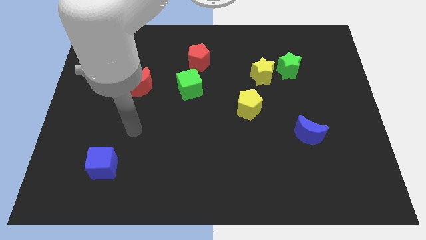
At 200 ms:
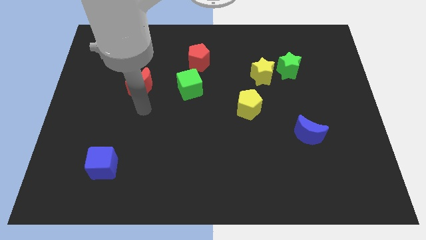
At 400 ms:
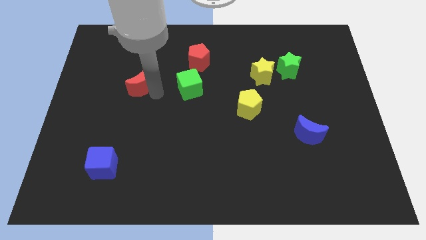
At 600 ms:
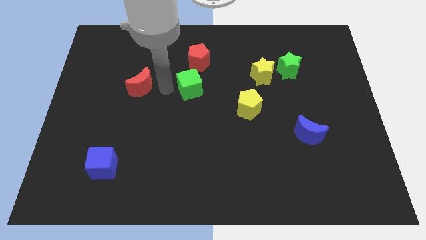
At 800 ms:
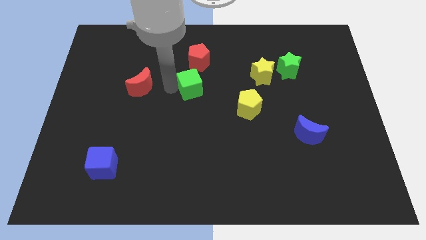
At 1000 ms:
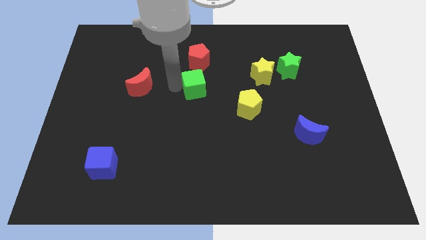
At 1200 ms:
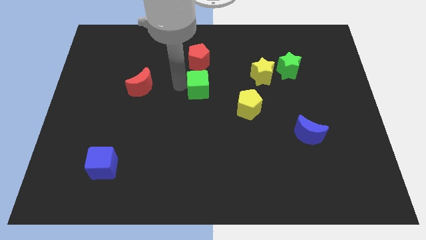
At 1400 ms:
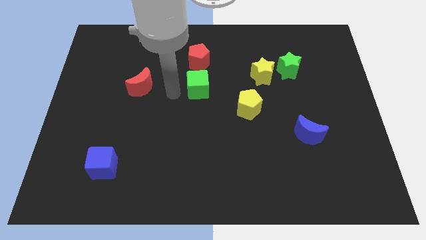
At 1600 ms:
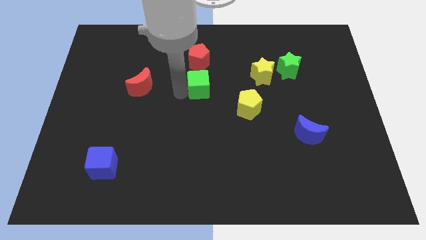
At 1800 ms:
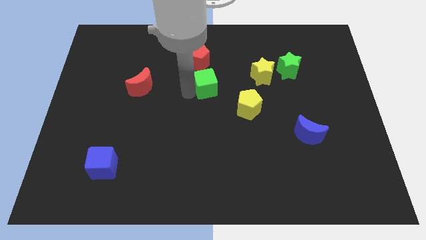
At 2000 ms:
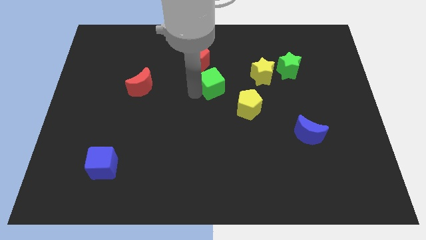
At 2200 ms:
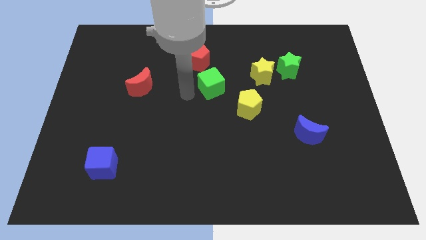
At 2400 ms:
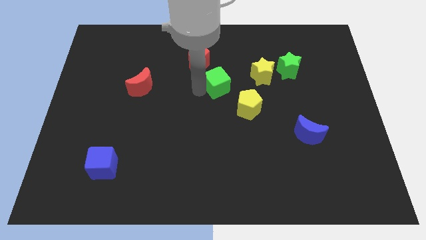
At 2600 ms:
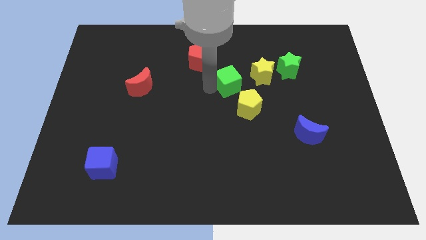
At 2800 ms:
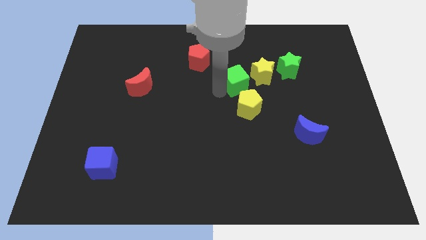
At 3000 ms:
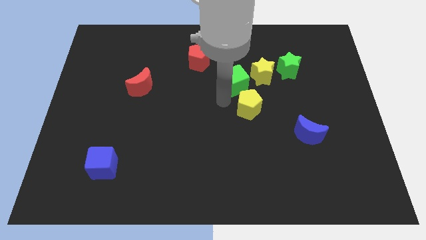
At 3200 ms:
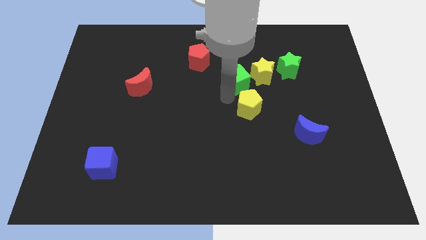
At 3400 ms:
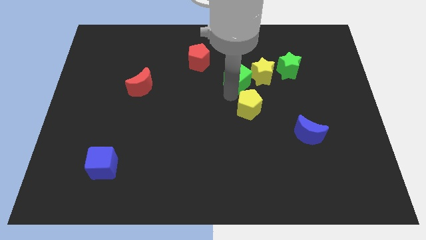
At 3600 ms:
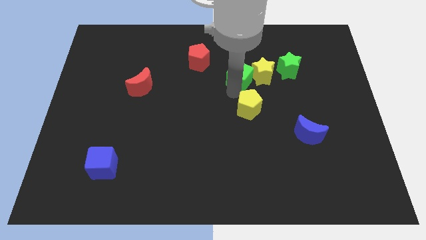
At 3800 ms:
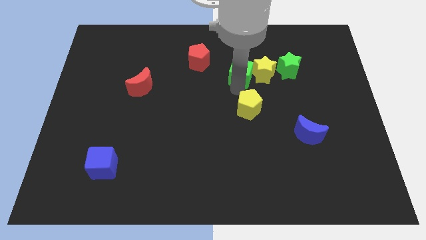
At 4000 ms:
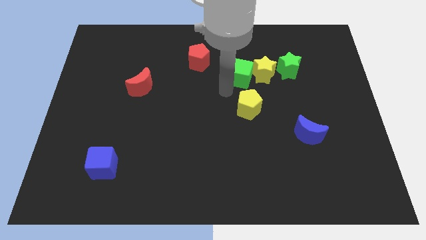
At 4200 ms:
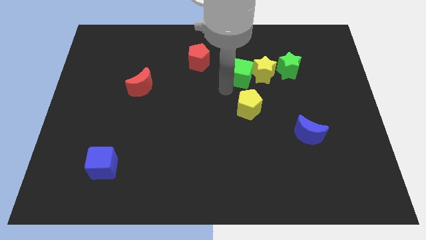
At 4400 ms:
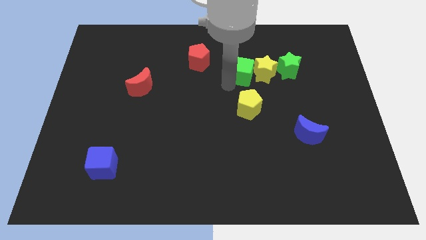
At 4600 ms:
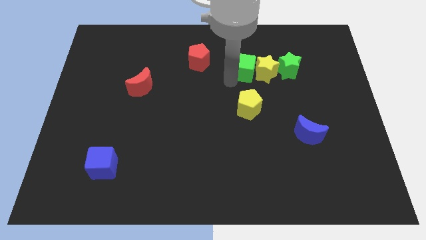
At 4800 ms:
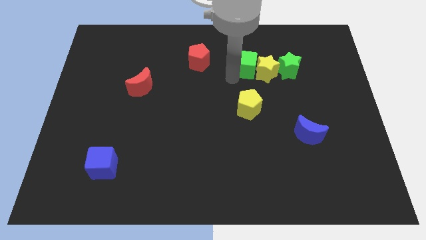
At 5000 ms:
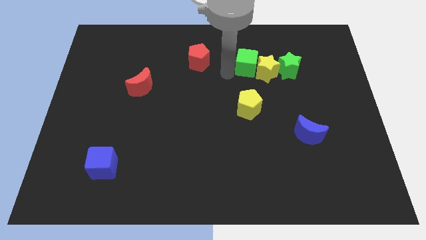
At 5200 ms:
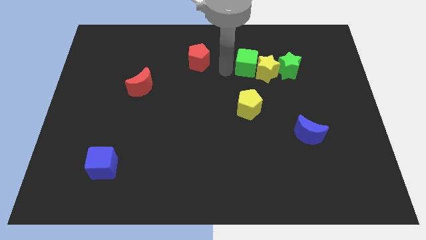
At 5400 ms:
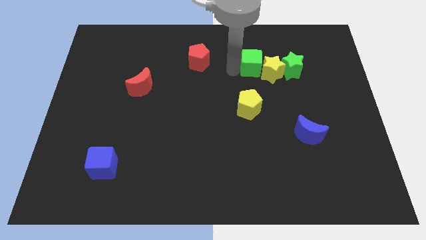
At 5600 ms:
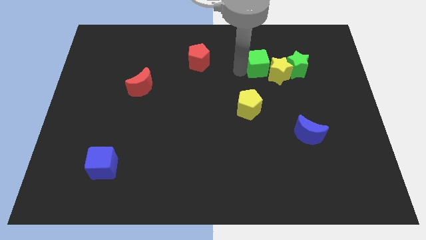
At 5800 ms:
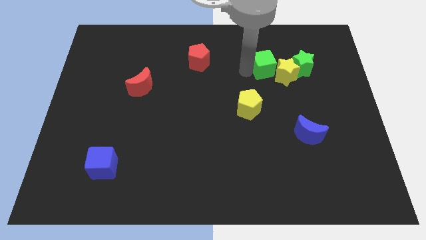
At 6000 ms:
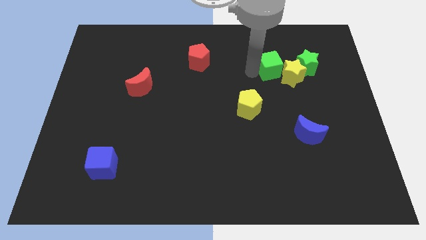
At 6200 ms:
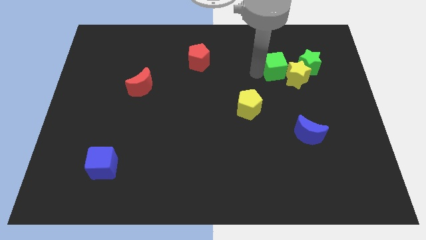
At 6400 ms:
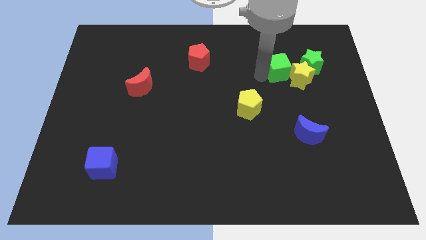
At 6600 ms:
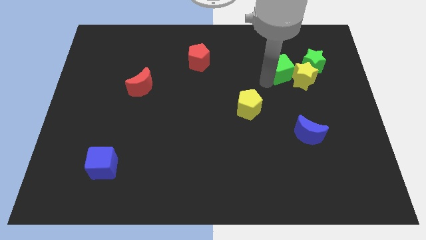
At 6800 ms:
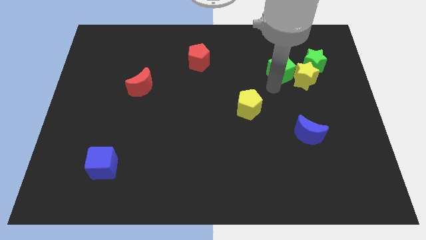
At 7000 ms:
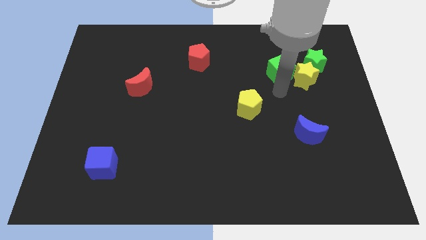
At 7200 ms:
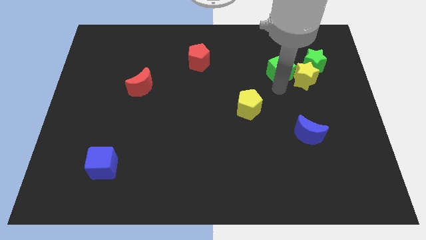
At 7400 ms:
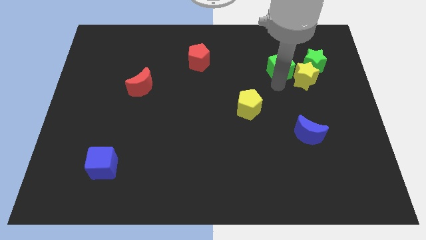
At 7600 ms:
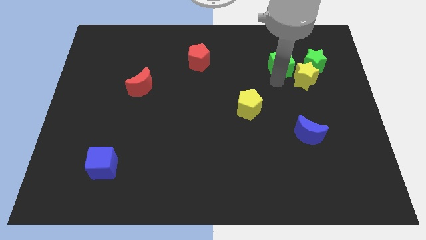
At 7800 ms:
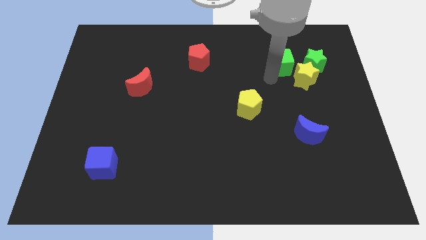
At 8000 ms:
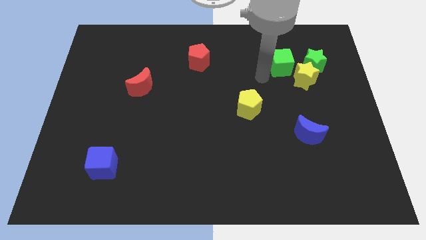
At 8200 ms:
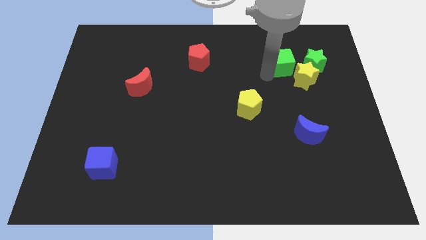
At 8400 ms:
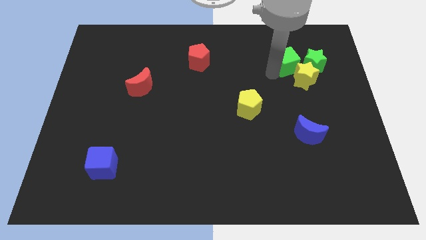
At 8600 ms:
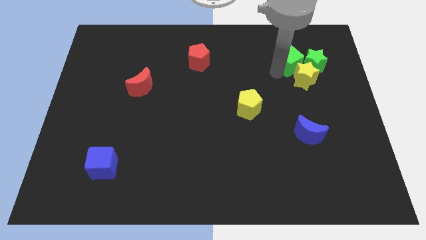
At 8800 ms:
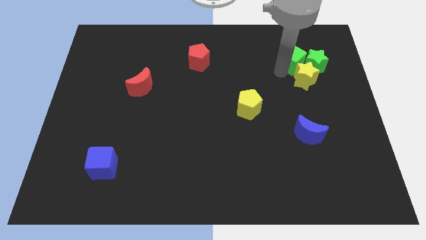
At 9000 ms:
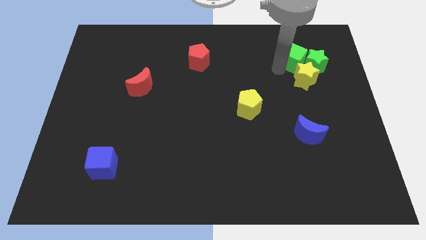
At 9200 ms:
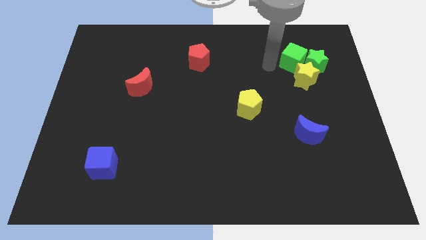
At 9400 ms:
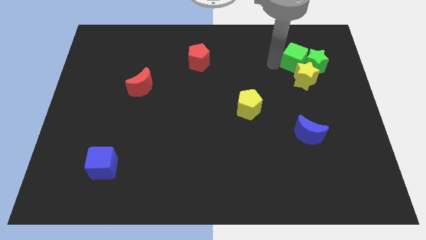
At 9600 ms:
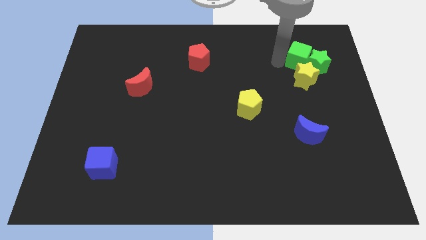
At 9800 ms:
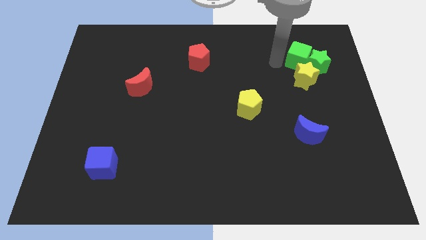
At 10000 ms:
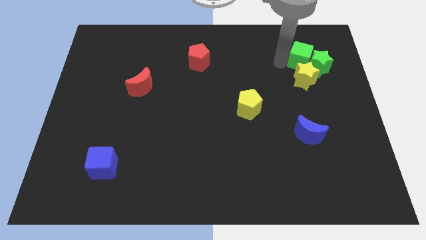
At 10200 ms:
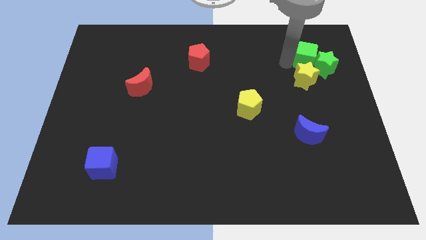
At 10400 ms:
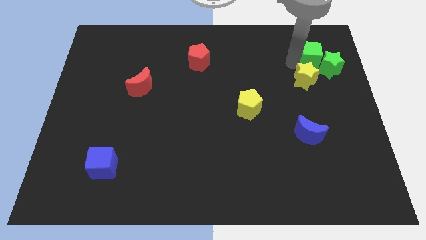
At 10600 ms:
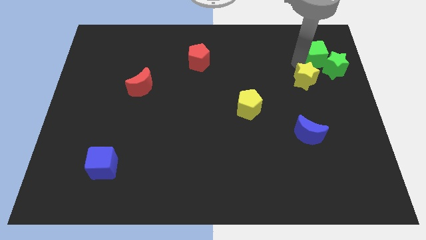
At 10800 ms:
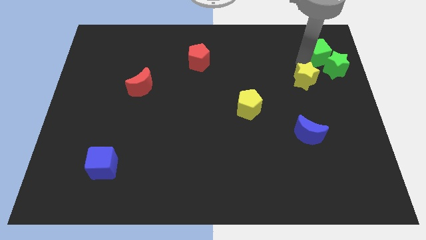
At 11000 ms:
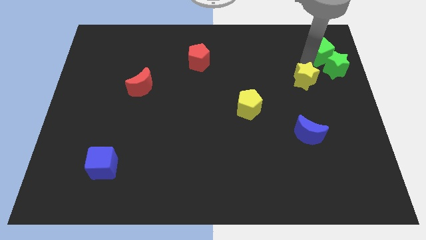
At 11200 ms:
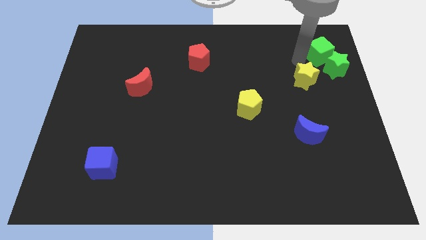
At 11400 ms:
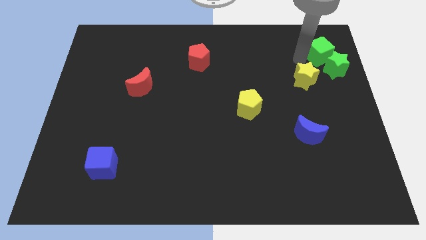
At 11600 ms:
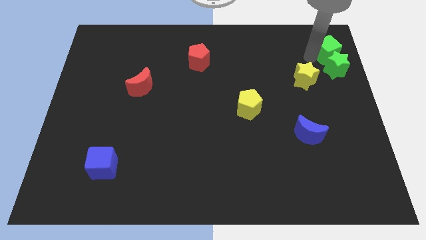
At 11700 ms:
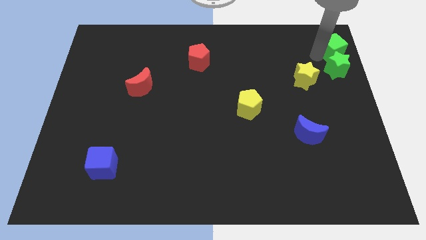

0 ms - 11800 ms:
push the green cube to the top right
